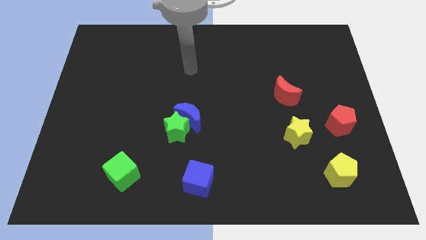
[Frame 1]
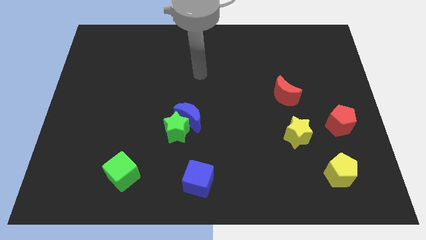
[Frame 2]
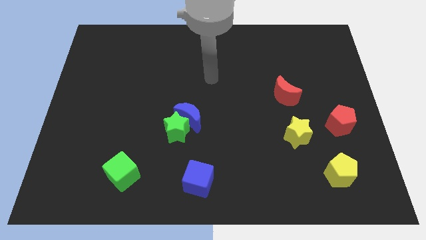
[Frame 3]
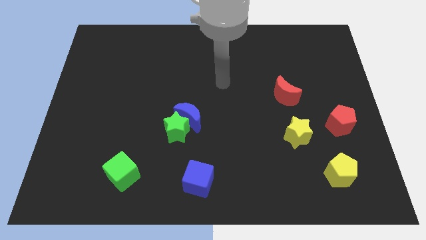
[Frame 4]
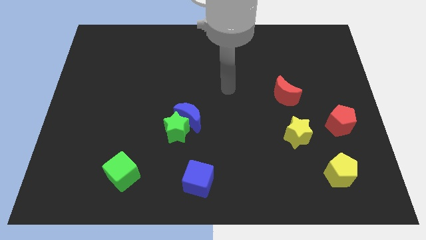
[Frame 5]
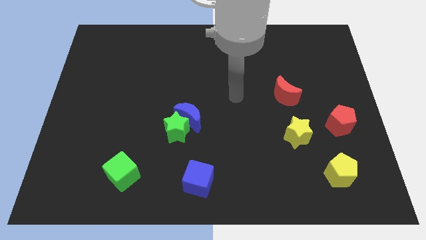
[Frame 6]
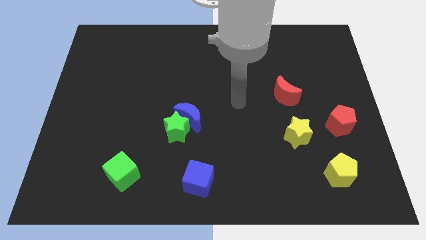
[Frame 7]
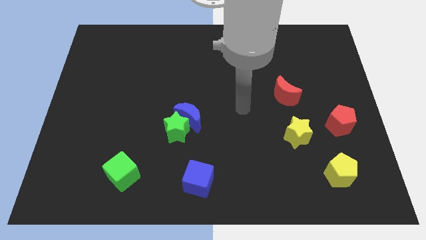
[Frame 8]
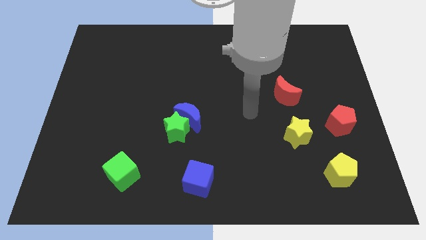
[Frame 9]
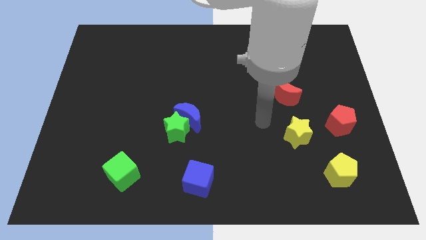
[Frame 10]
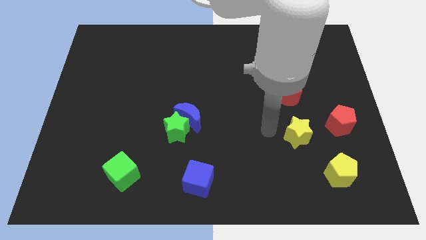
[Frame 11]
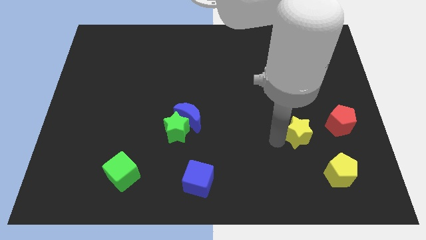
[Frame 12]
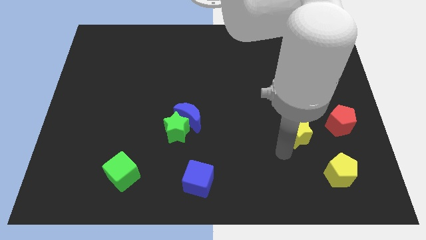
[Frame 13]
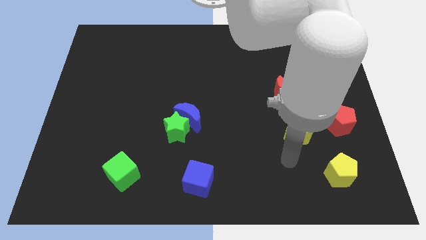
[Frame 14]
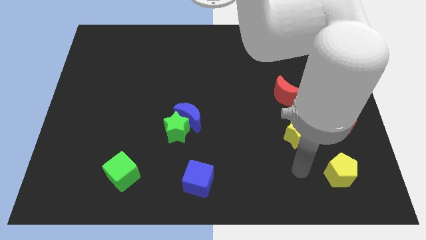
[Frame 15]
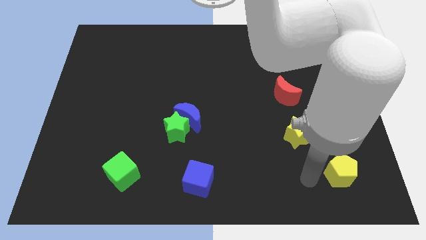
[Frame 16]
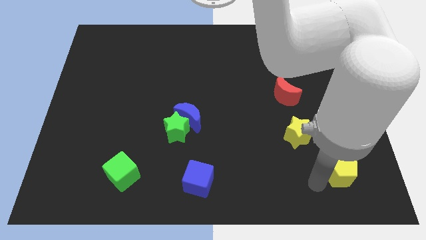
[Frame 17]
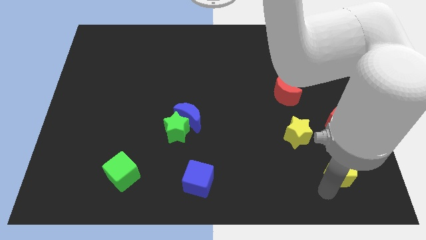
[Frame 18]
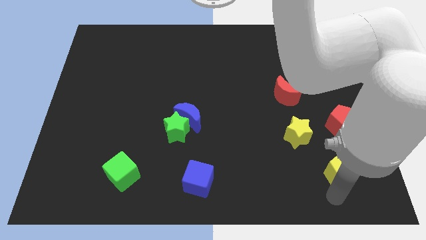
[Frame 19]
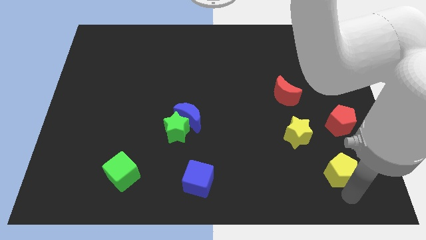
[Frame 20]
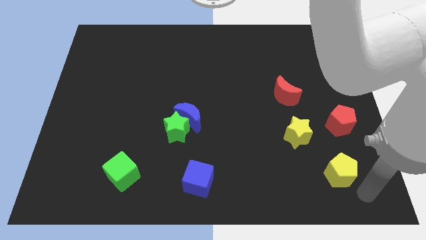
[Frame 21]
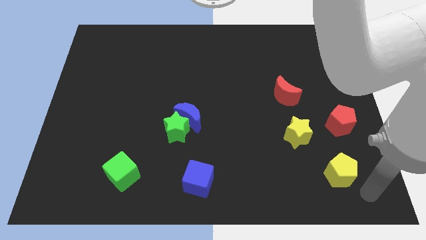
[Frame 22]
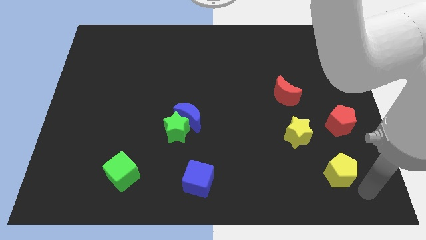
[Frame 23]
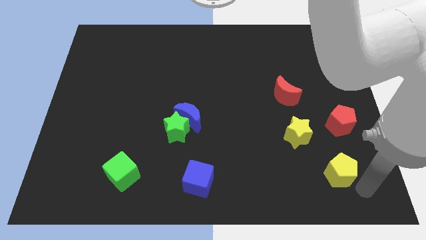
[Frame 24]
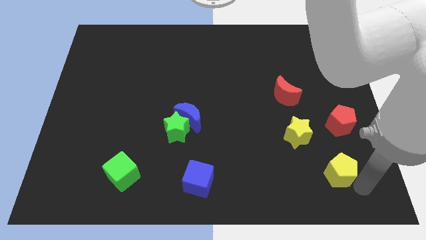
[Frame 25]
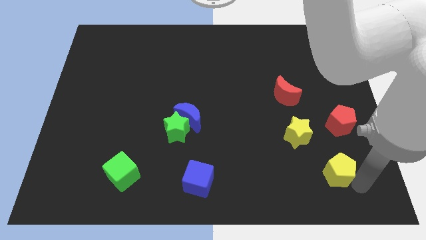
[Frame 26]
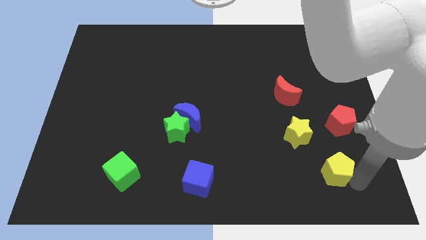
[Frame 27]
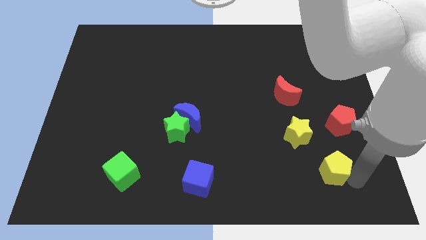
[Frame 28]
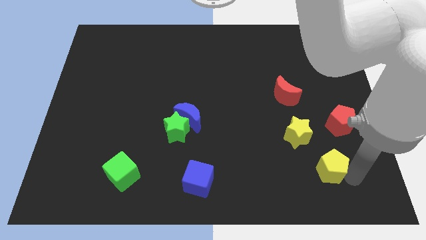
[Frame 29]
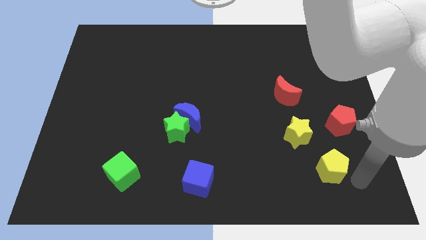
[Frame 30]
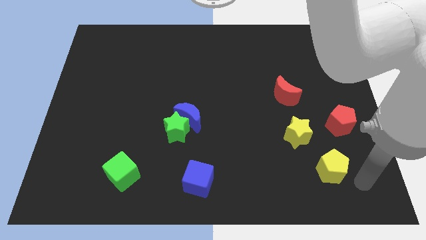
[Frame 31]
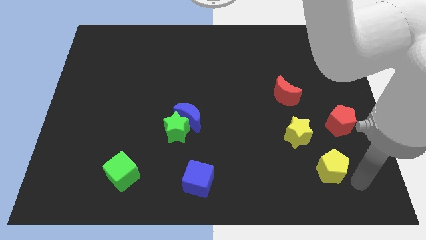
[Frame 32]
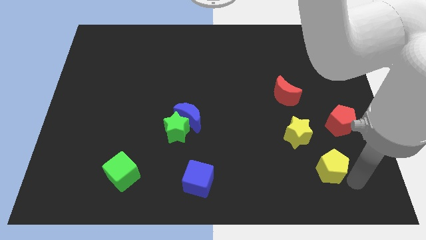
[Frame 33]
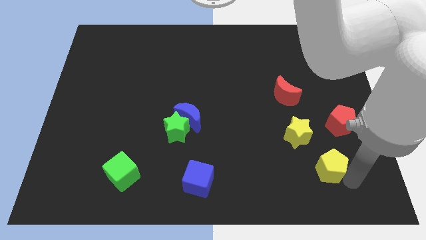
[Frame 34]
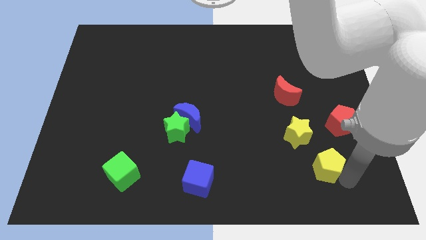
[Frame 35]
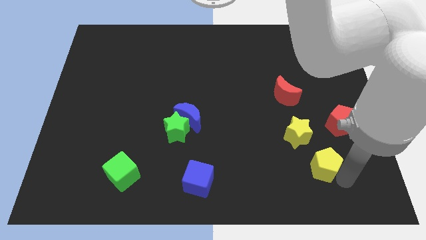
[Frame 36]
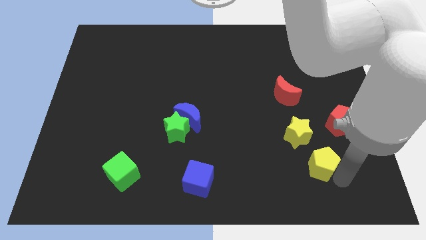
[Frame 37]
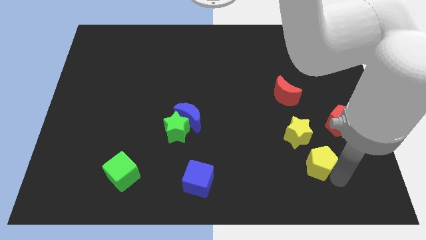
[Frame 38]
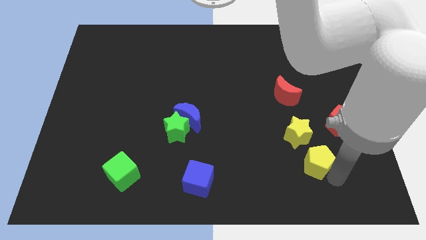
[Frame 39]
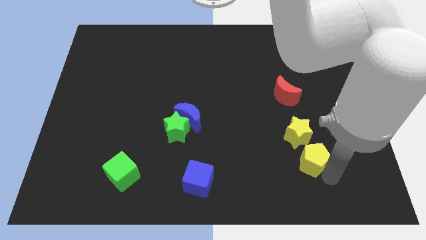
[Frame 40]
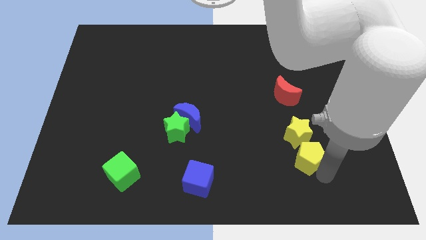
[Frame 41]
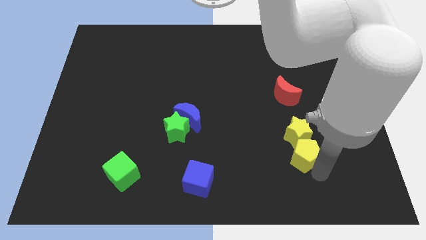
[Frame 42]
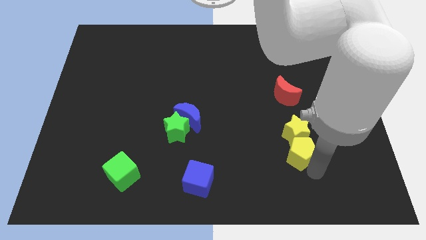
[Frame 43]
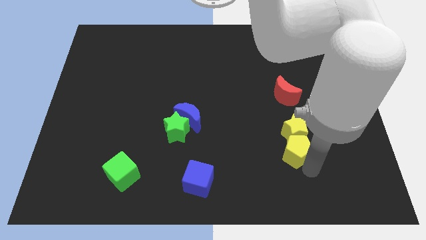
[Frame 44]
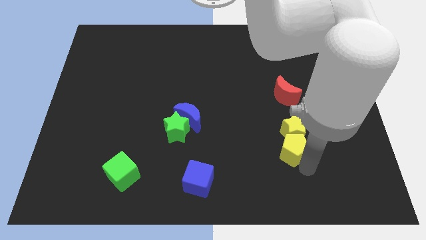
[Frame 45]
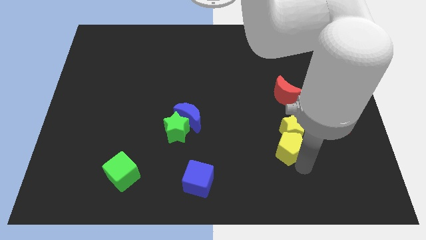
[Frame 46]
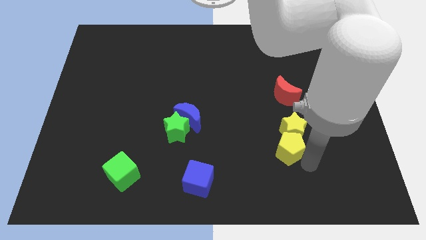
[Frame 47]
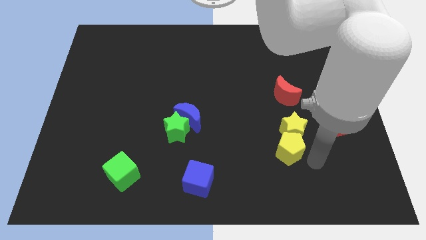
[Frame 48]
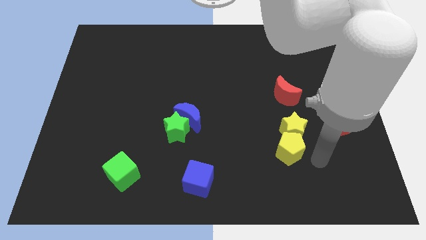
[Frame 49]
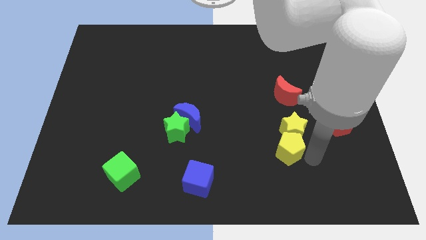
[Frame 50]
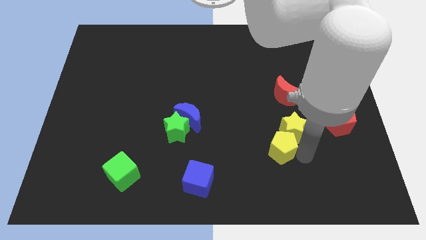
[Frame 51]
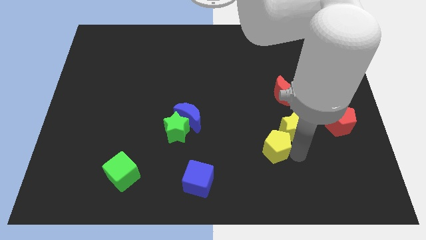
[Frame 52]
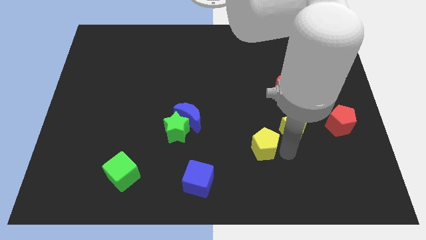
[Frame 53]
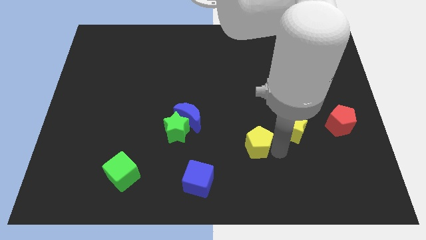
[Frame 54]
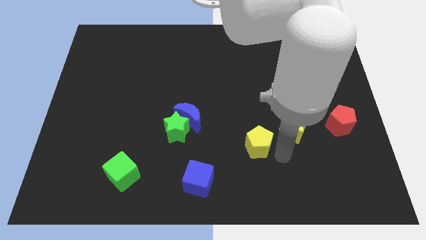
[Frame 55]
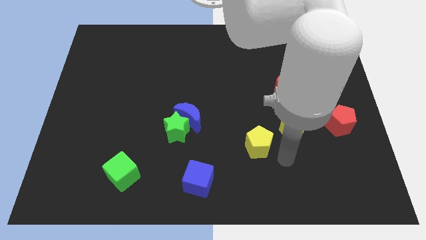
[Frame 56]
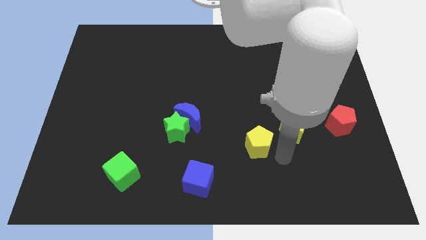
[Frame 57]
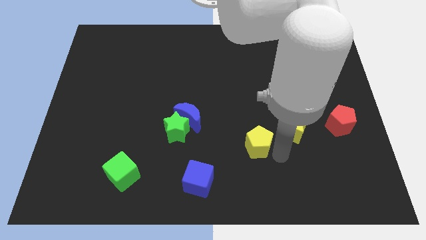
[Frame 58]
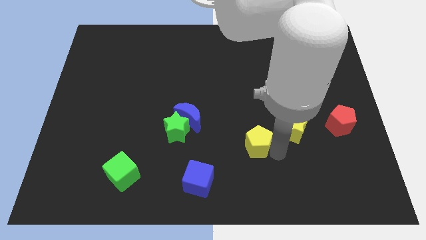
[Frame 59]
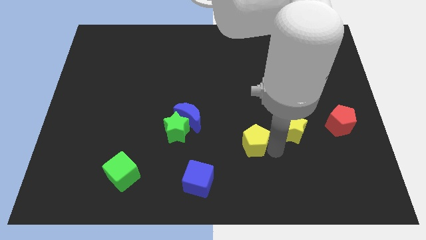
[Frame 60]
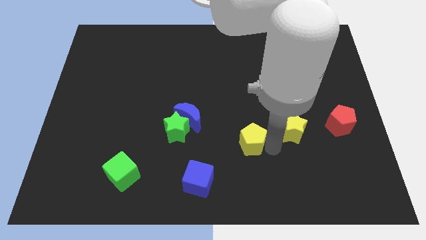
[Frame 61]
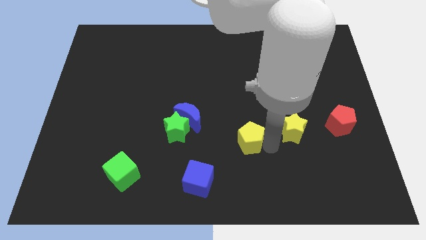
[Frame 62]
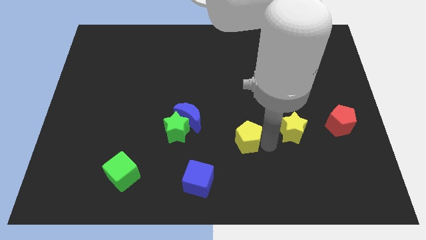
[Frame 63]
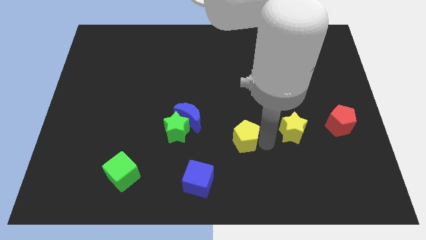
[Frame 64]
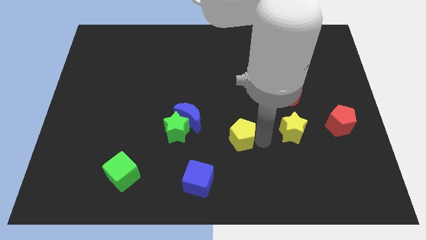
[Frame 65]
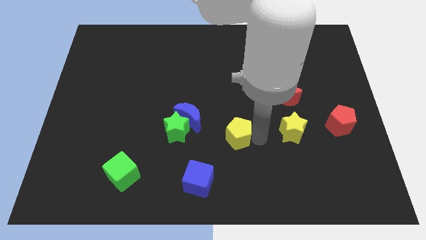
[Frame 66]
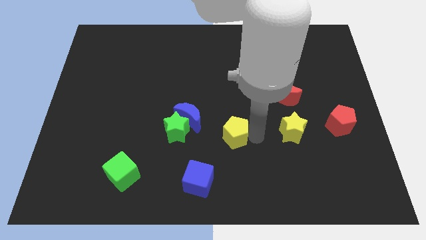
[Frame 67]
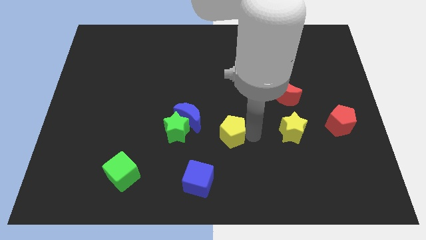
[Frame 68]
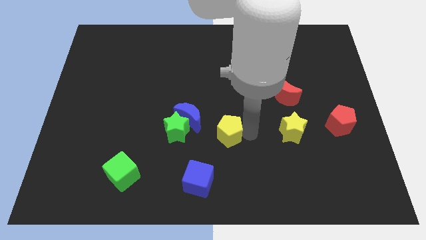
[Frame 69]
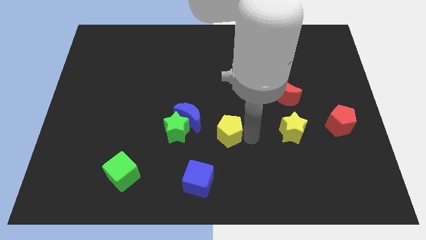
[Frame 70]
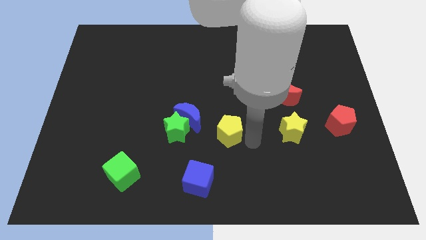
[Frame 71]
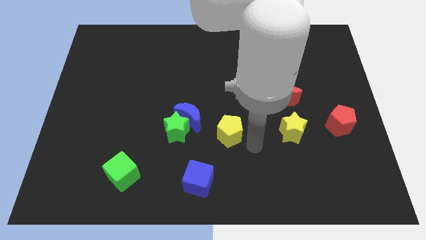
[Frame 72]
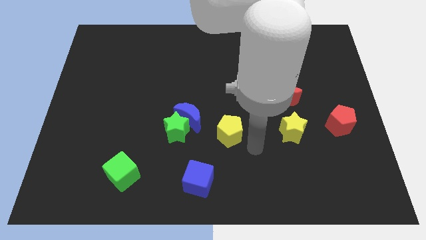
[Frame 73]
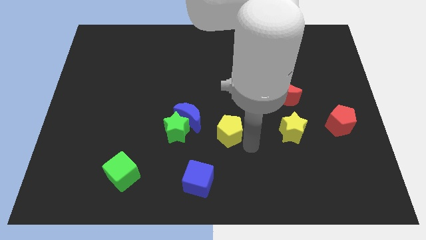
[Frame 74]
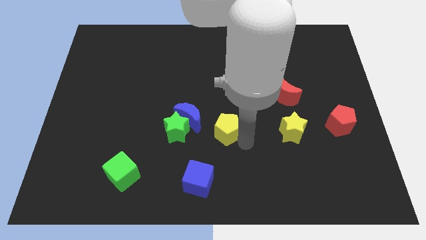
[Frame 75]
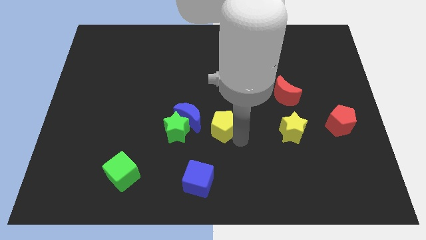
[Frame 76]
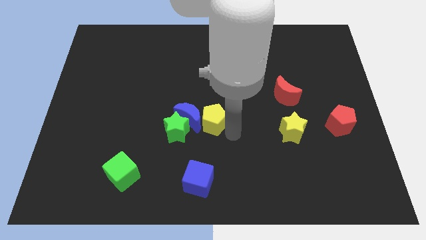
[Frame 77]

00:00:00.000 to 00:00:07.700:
push the yellow pentagon towards the blue moon
